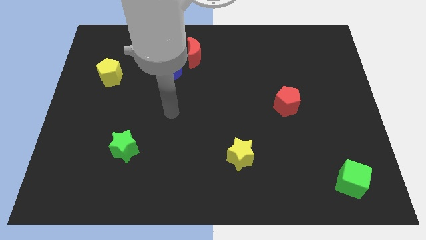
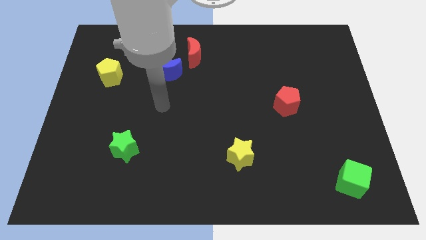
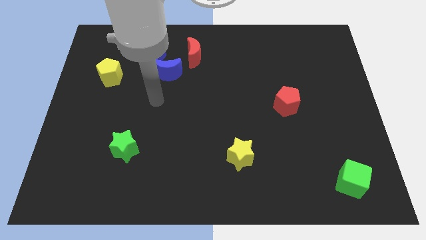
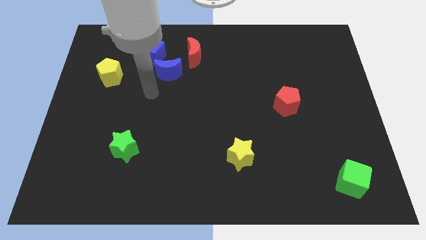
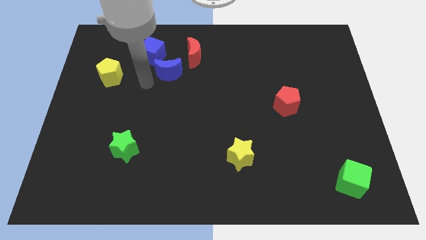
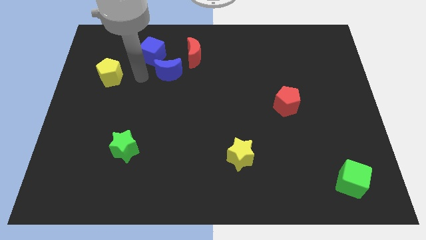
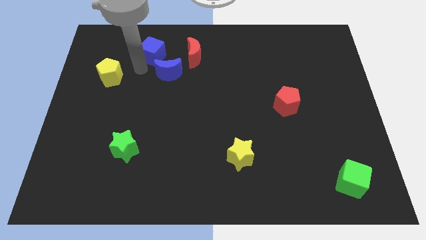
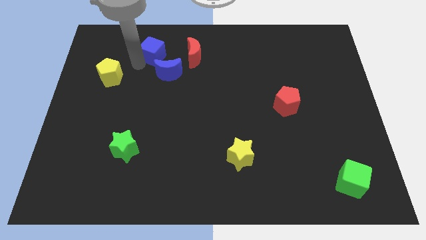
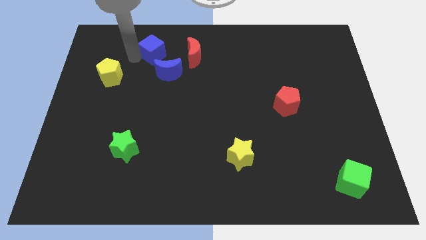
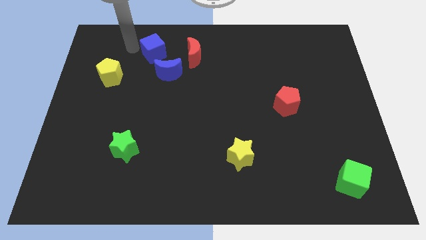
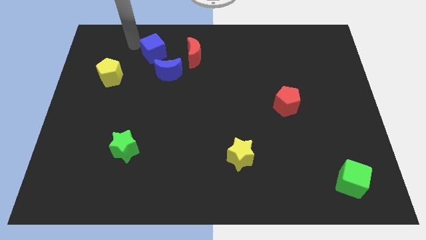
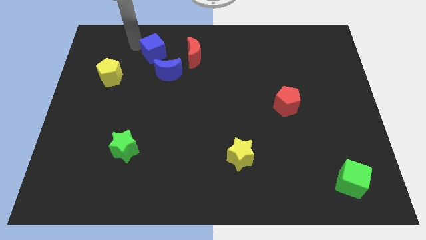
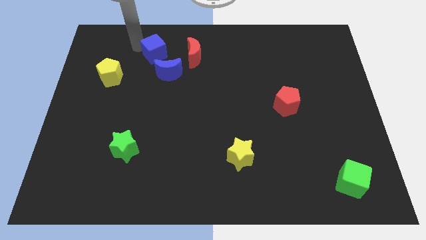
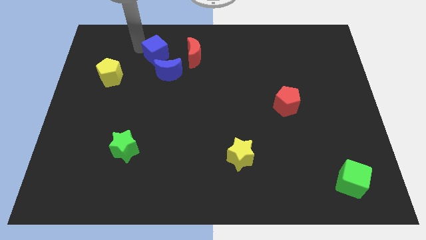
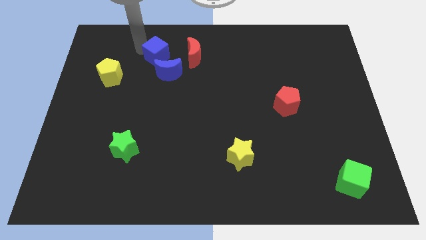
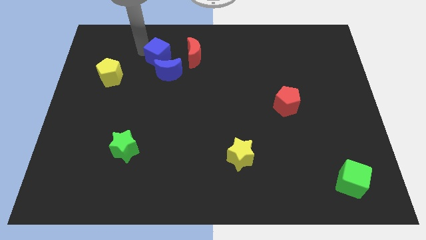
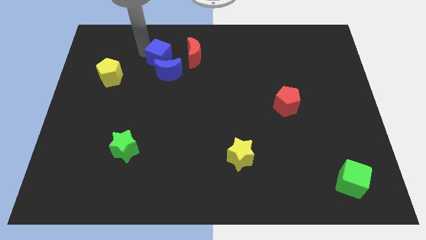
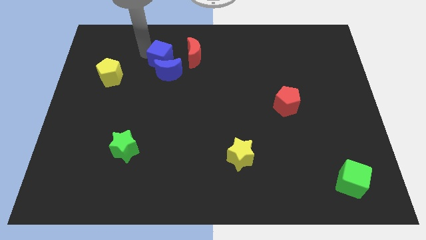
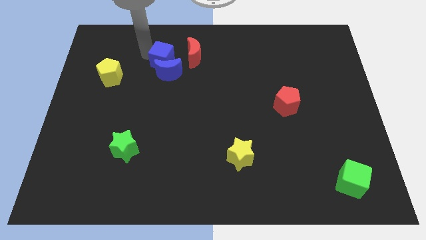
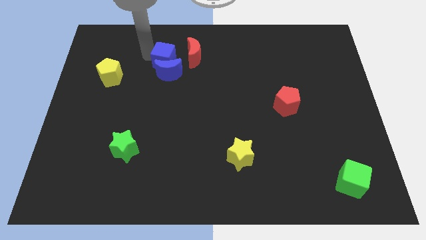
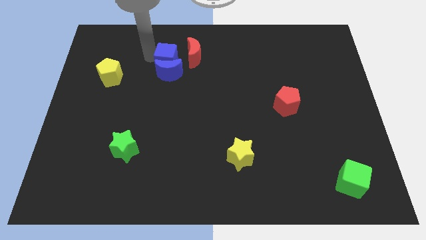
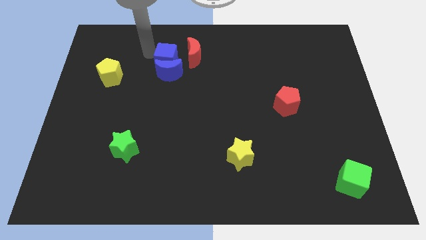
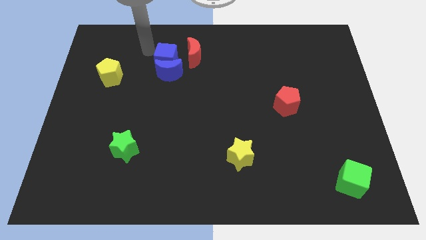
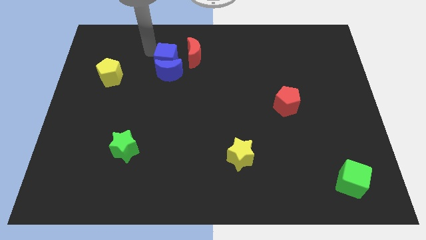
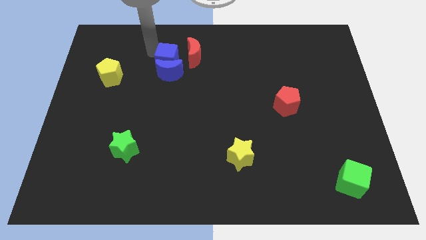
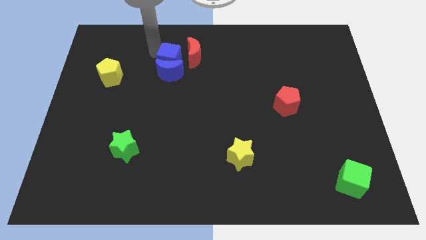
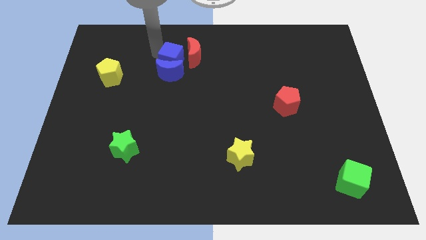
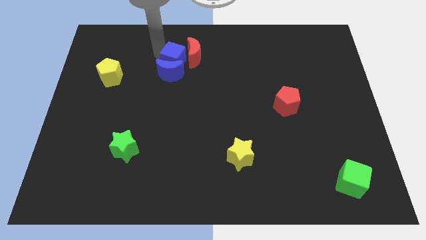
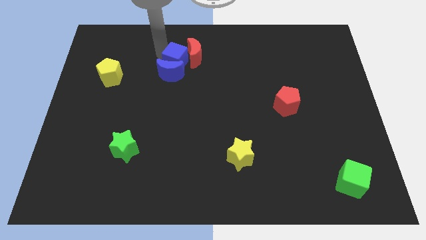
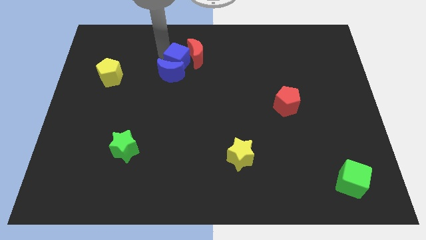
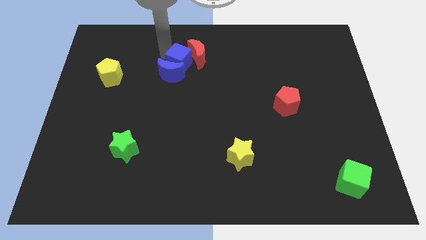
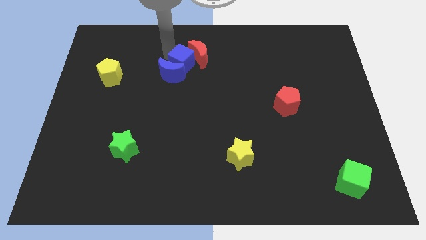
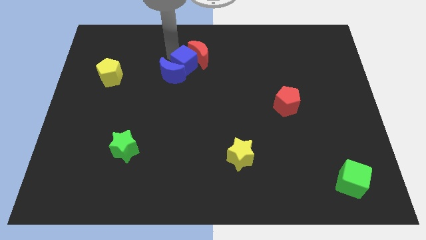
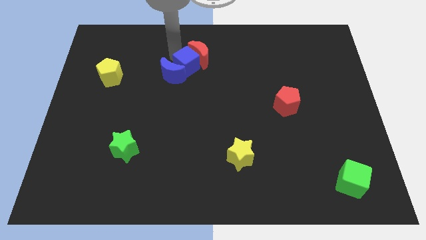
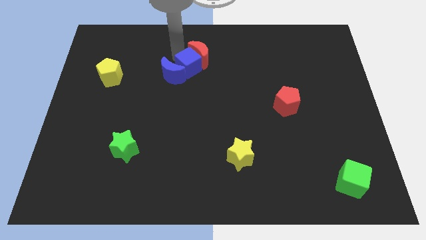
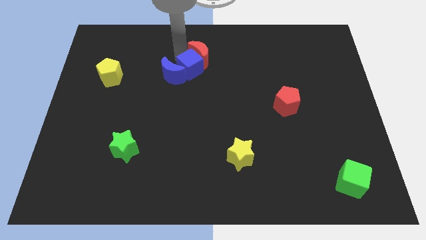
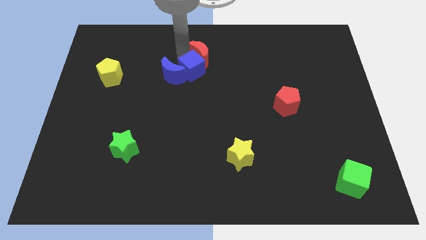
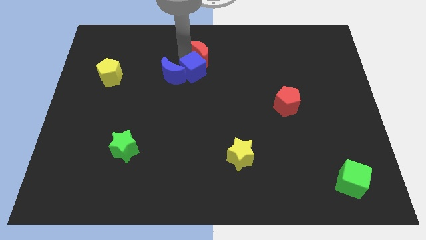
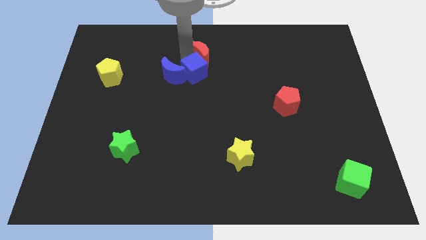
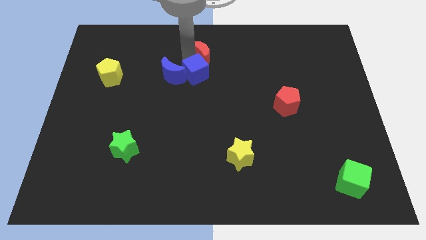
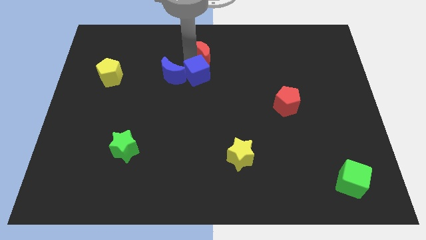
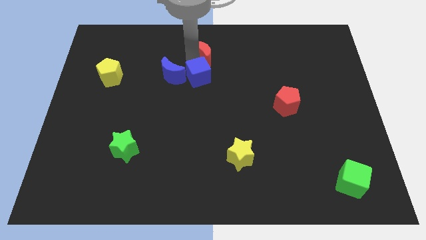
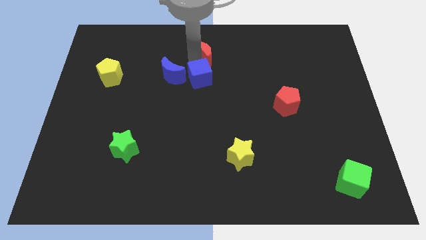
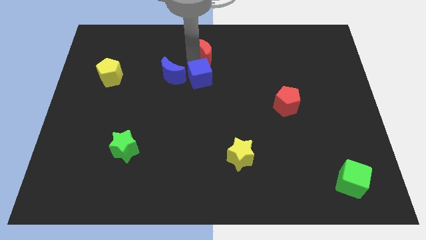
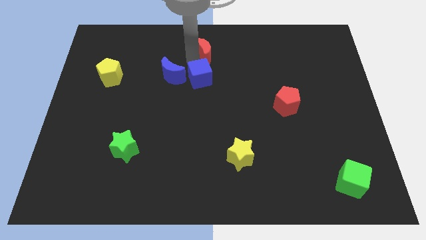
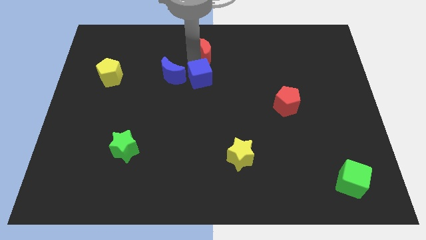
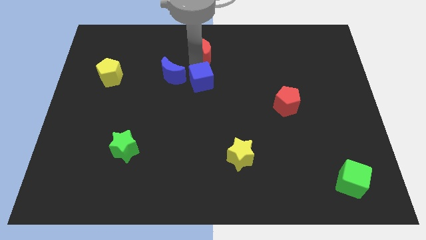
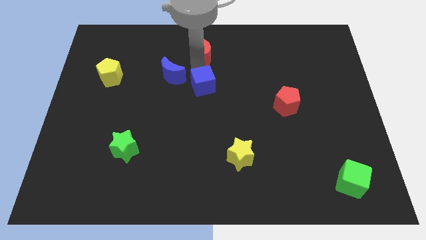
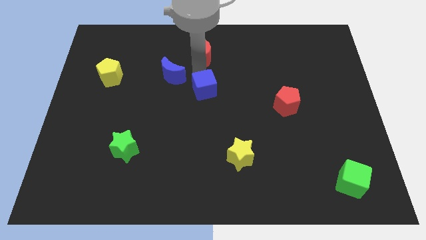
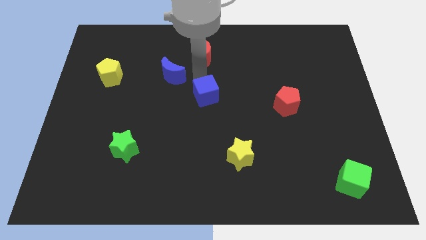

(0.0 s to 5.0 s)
push the blue cube down and to the right diagonally

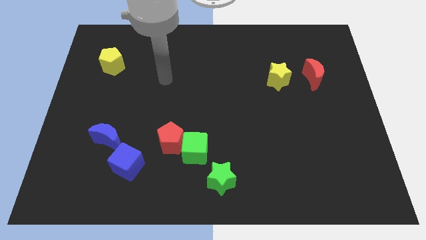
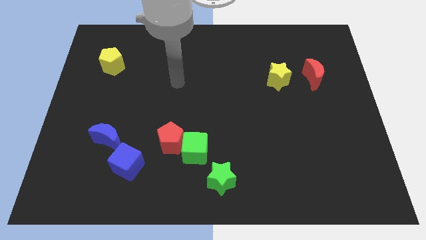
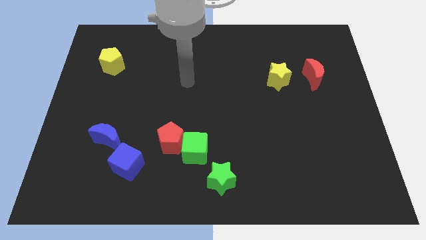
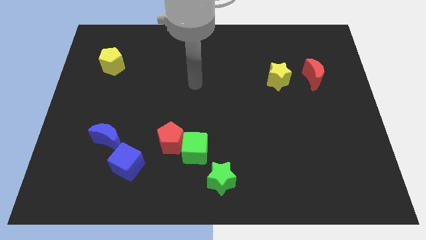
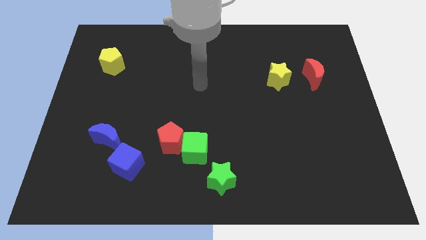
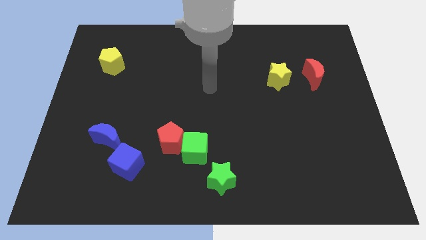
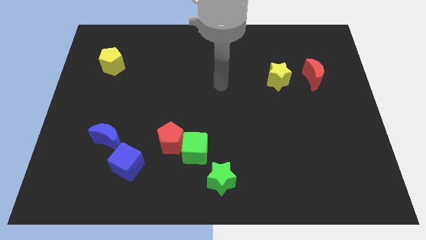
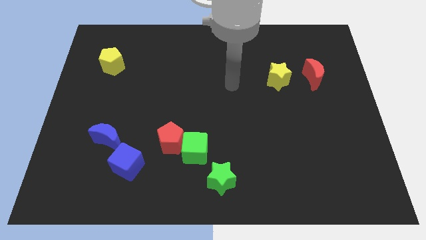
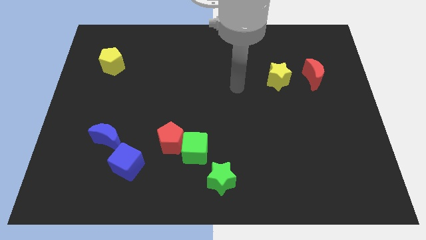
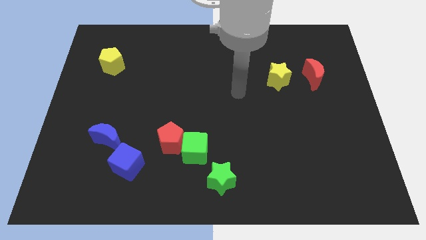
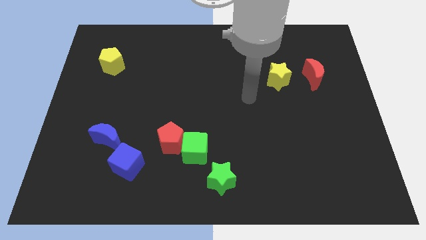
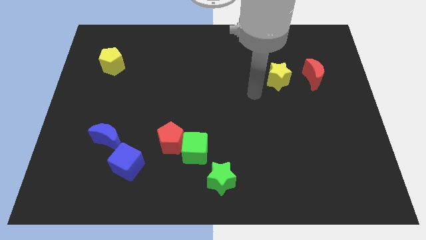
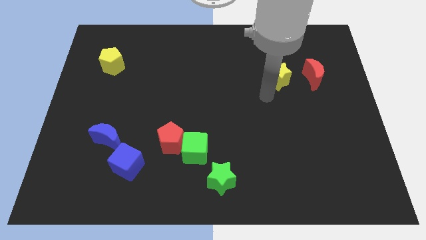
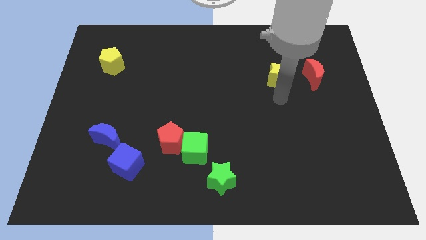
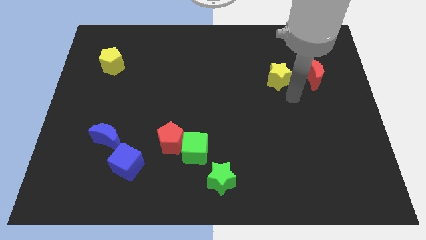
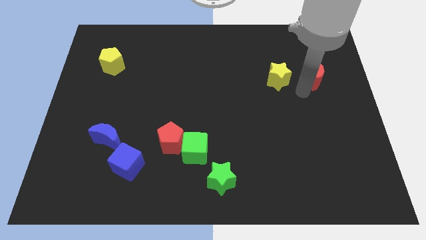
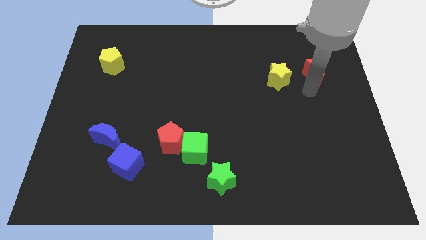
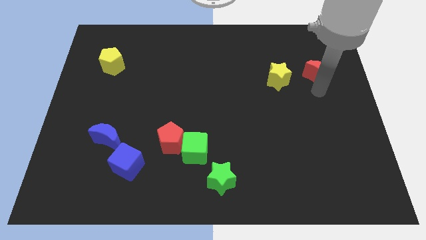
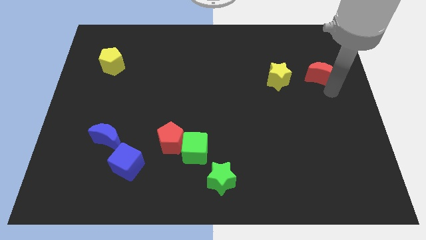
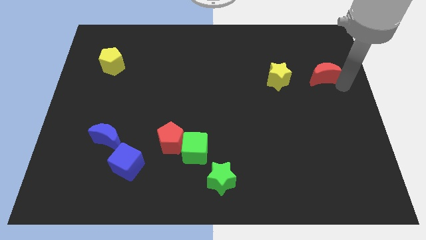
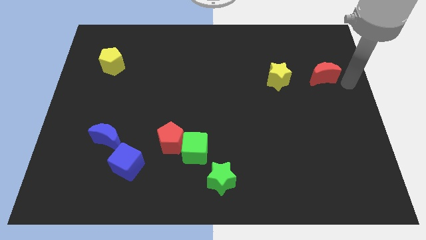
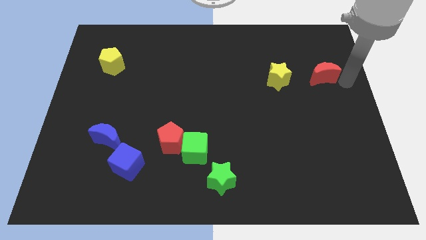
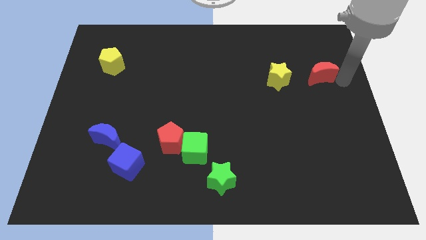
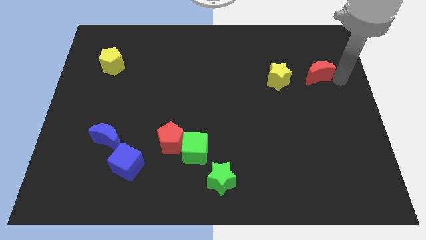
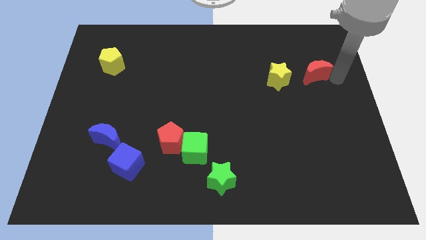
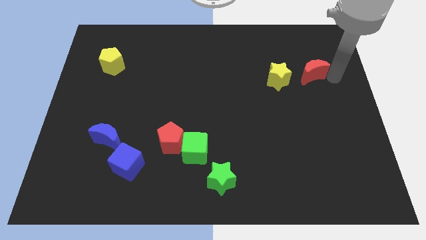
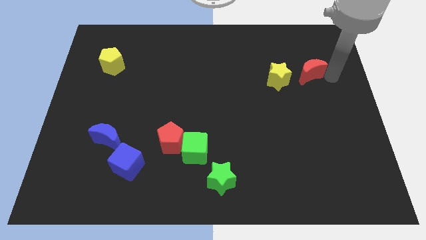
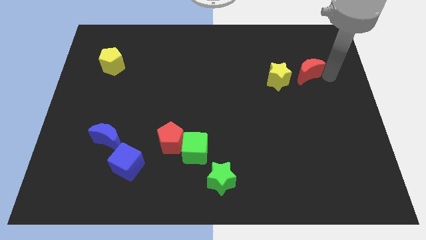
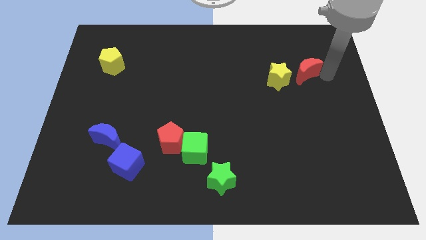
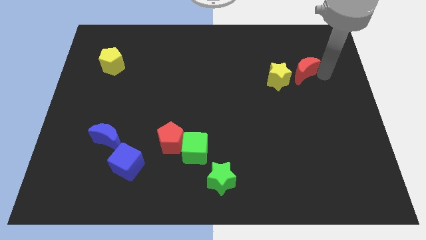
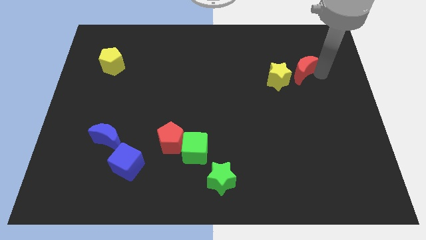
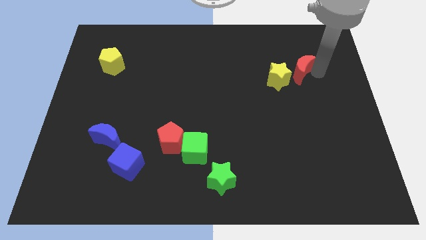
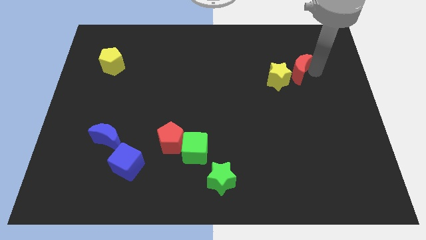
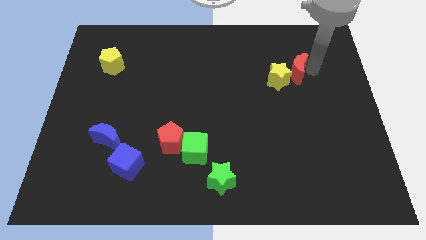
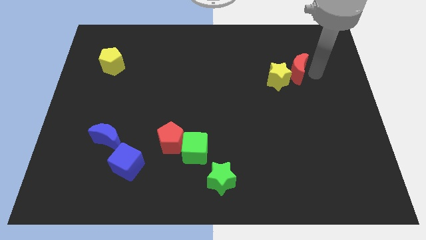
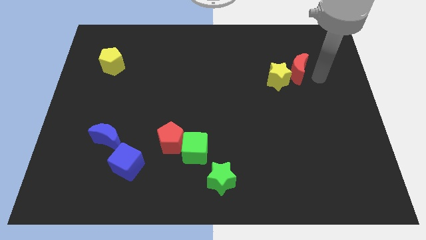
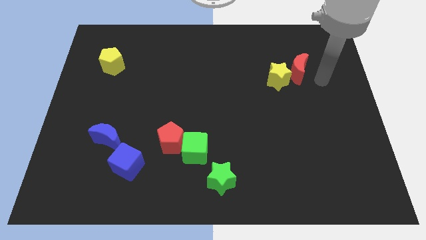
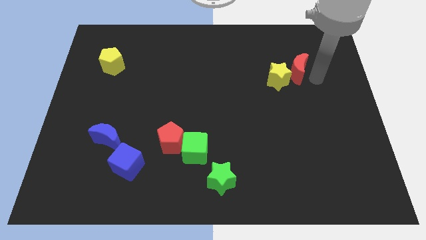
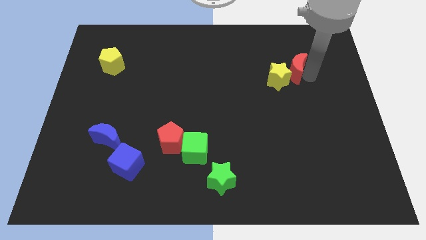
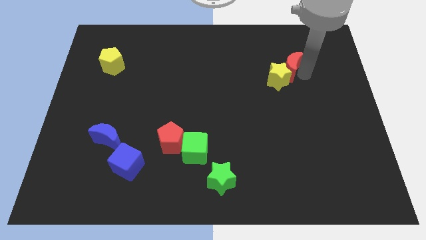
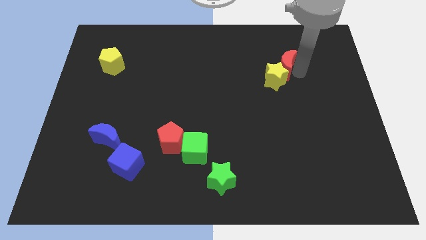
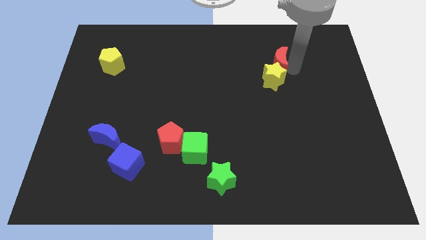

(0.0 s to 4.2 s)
slightly push the red moon left
